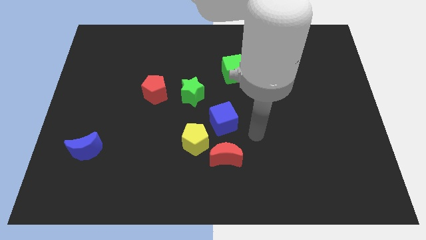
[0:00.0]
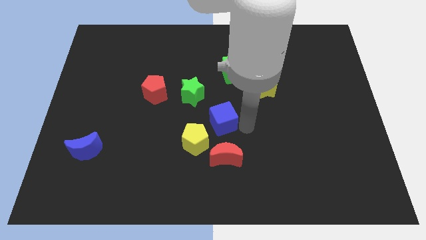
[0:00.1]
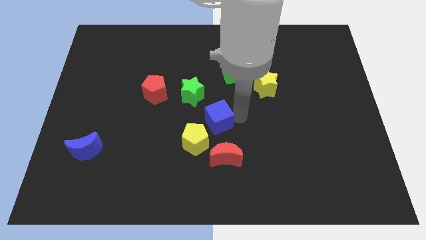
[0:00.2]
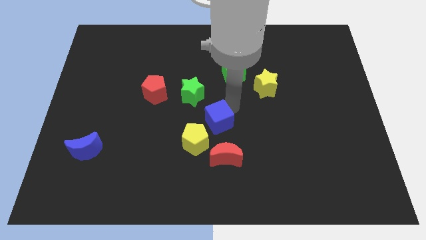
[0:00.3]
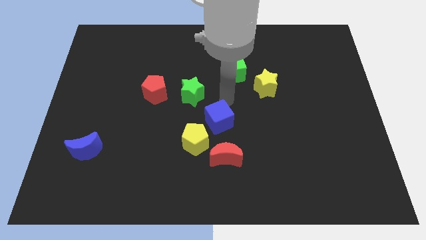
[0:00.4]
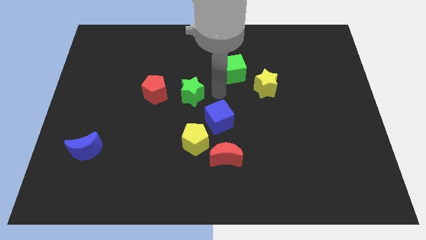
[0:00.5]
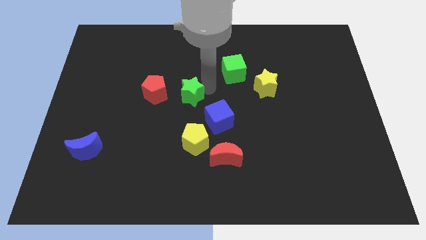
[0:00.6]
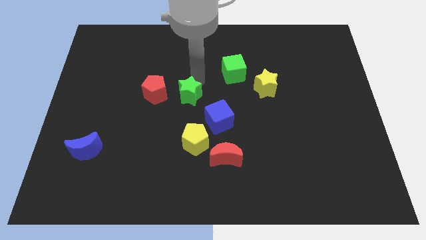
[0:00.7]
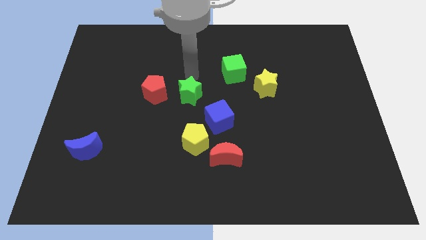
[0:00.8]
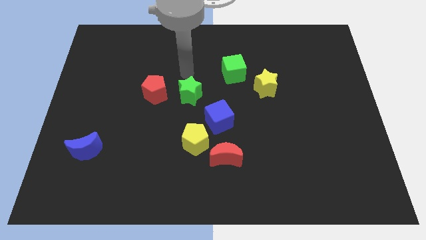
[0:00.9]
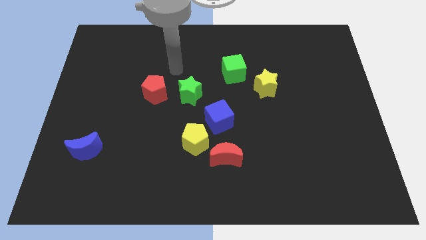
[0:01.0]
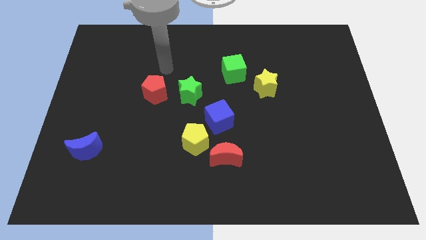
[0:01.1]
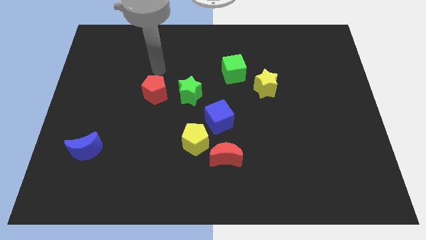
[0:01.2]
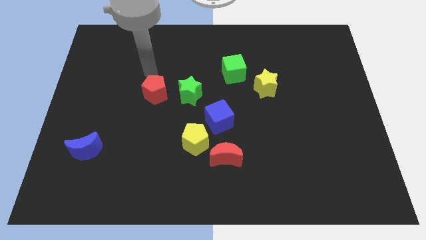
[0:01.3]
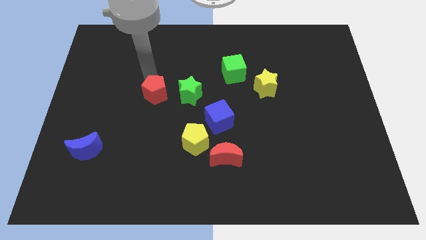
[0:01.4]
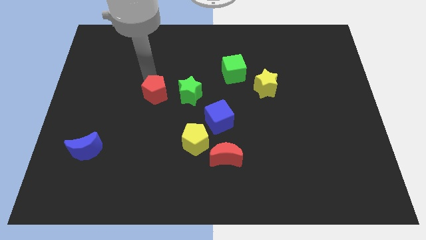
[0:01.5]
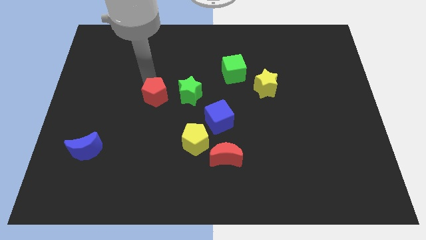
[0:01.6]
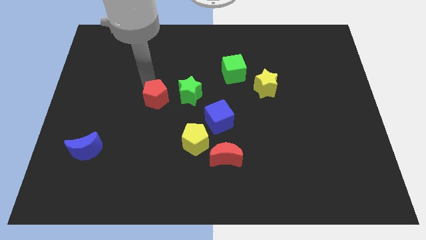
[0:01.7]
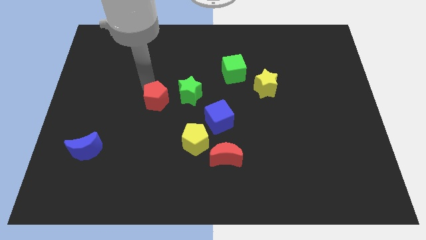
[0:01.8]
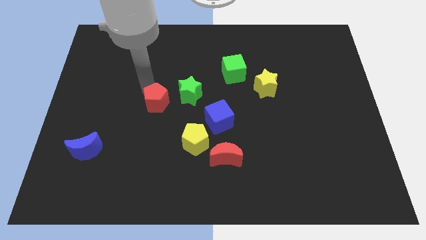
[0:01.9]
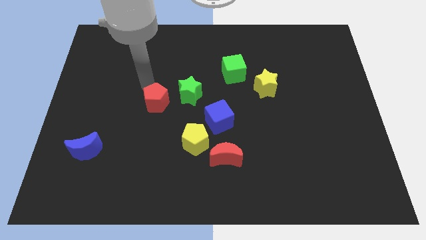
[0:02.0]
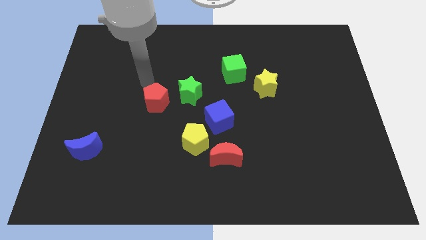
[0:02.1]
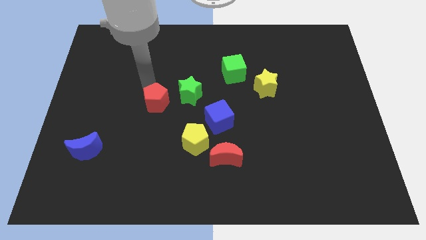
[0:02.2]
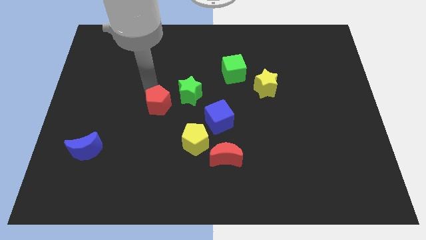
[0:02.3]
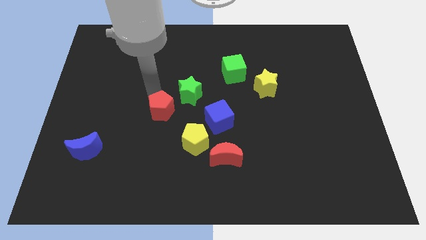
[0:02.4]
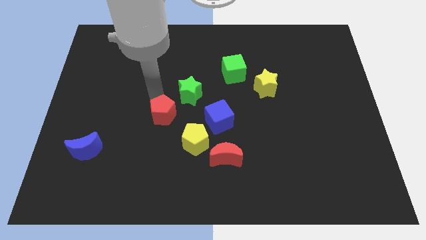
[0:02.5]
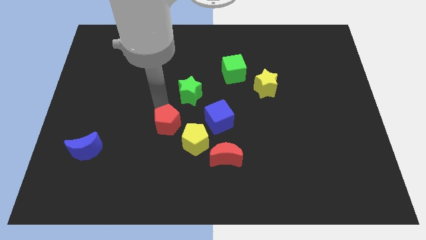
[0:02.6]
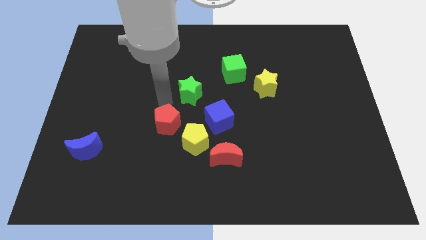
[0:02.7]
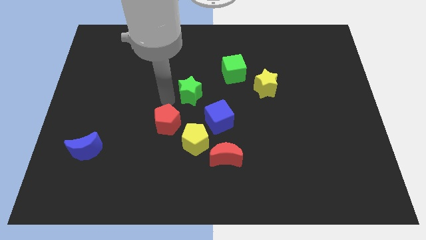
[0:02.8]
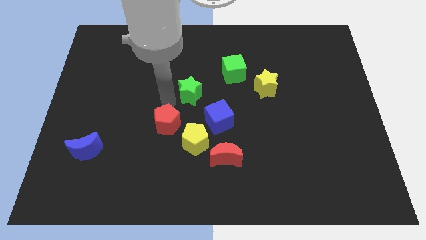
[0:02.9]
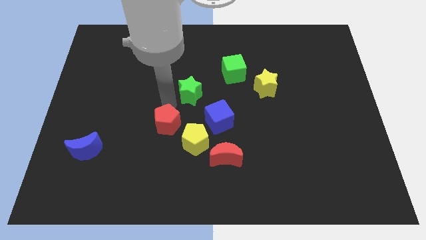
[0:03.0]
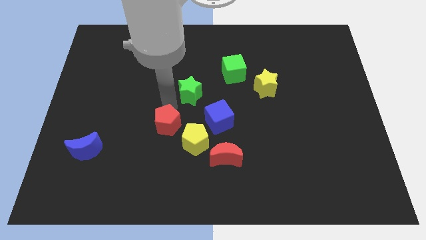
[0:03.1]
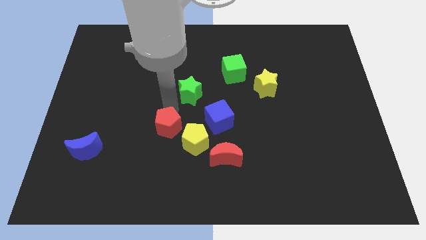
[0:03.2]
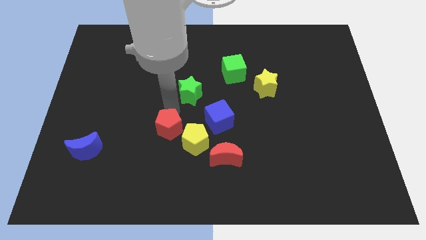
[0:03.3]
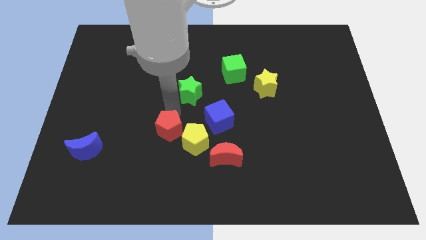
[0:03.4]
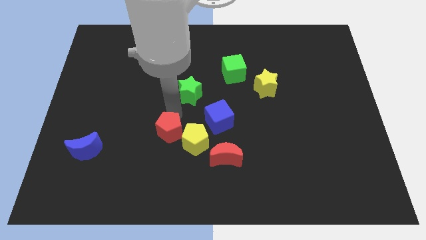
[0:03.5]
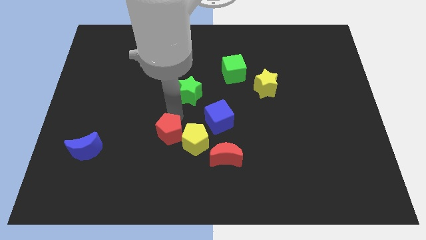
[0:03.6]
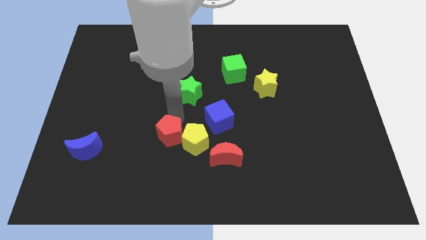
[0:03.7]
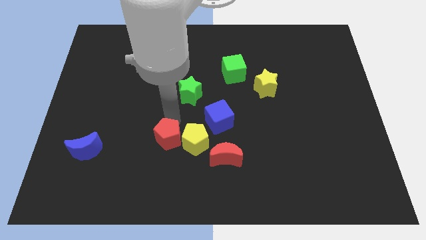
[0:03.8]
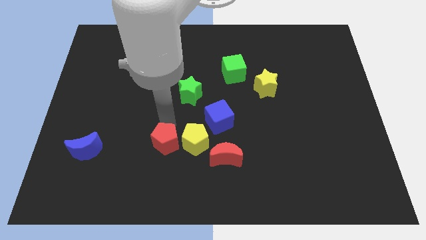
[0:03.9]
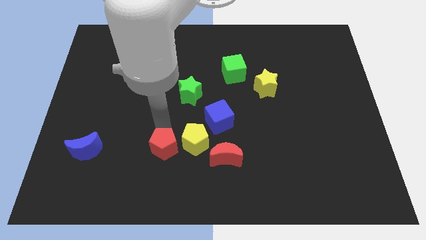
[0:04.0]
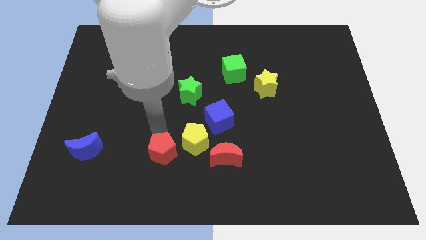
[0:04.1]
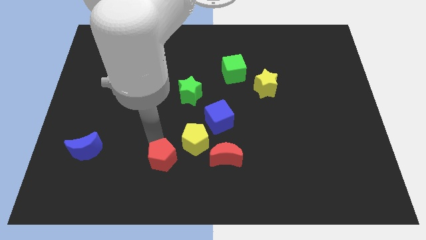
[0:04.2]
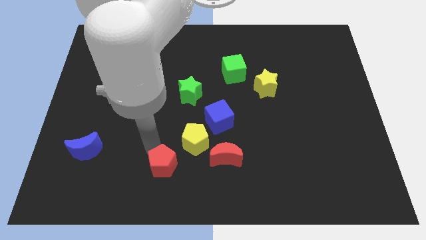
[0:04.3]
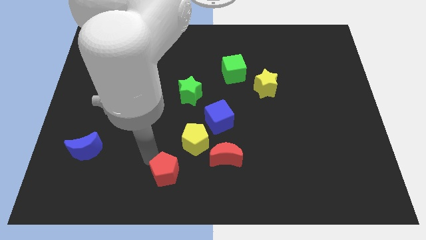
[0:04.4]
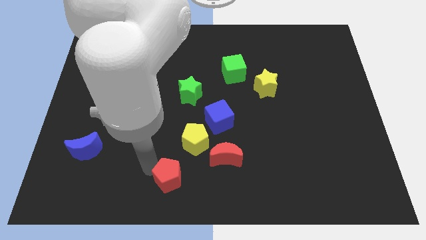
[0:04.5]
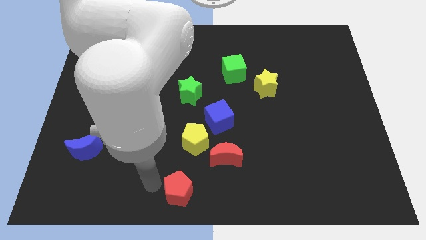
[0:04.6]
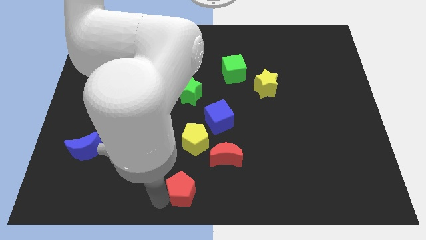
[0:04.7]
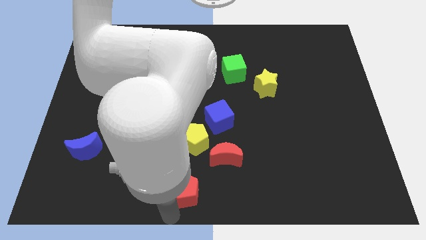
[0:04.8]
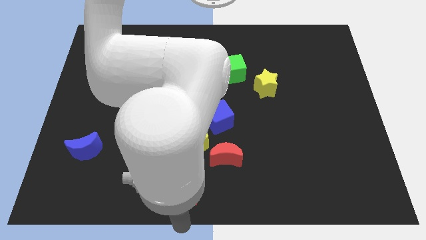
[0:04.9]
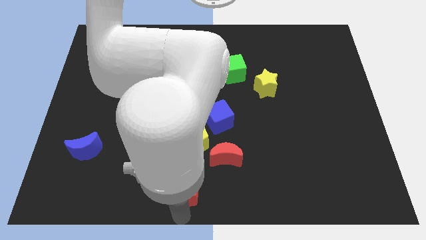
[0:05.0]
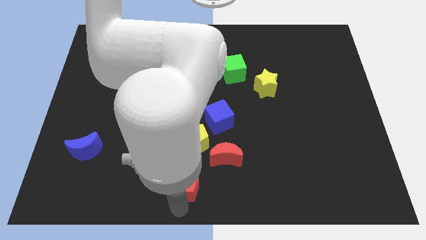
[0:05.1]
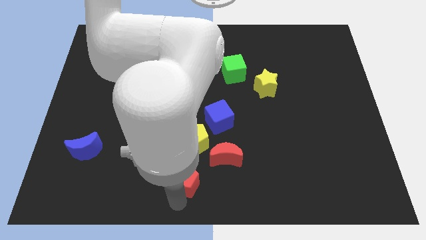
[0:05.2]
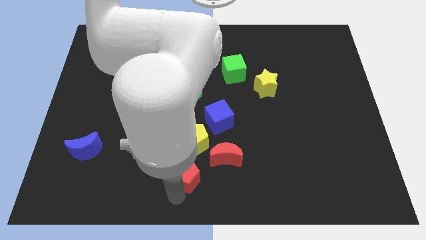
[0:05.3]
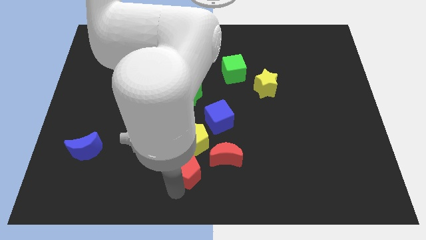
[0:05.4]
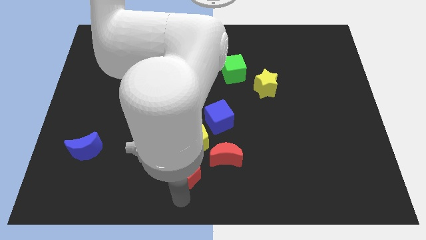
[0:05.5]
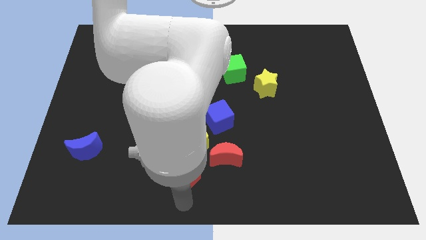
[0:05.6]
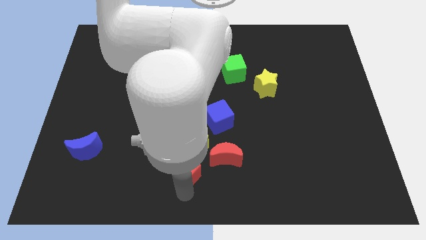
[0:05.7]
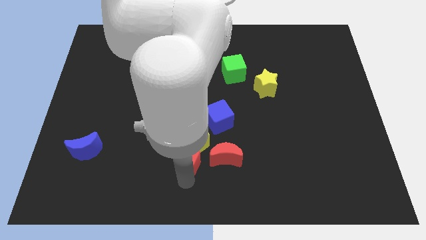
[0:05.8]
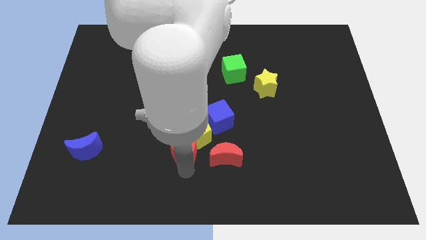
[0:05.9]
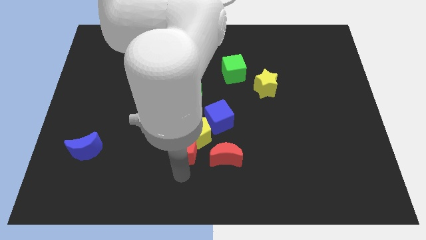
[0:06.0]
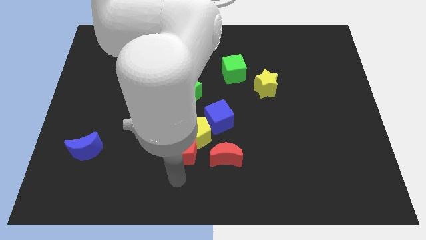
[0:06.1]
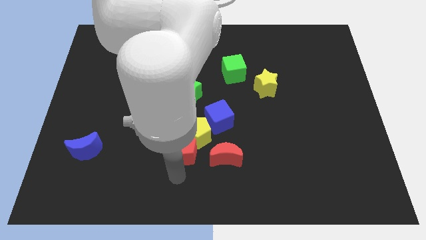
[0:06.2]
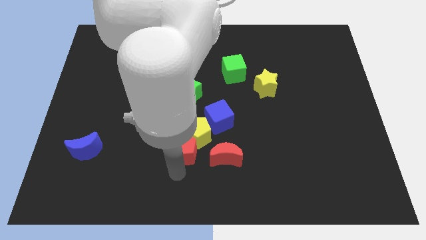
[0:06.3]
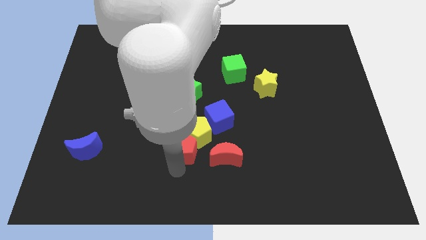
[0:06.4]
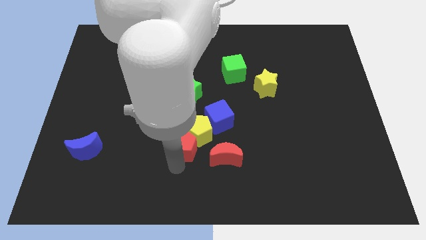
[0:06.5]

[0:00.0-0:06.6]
move the red pentagon to the top left of the red moon

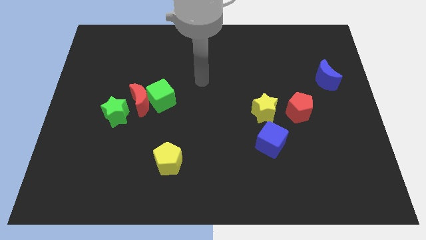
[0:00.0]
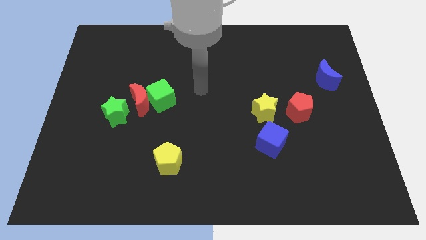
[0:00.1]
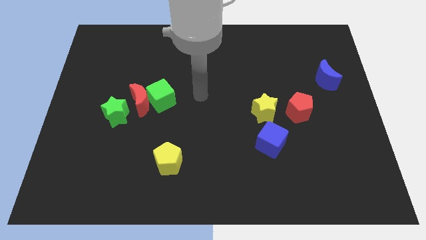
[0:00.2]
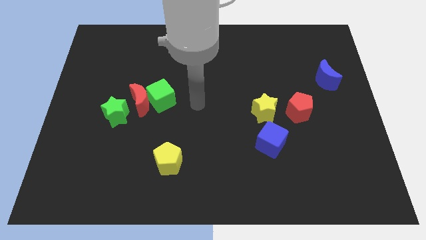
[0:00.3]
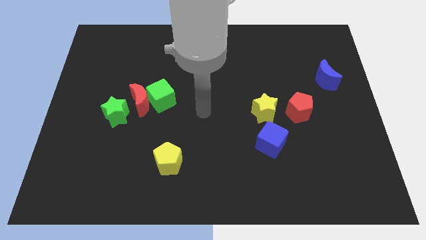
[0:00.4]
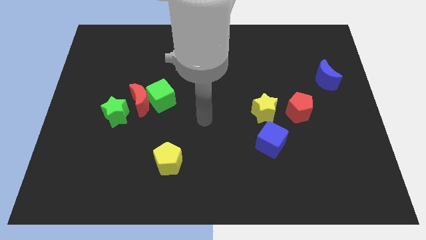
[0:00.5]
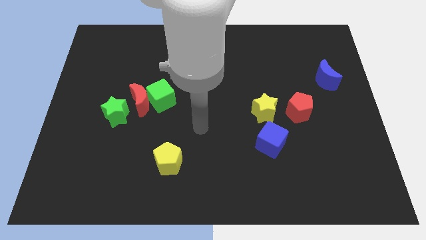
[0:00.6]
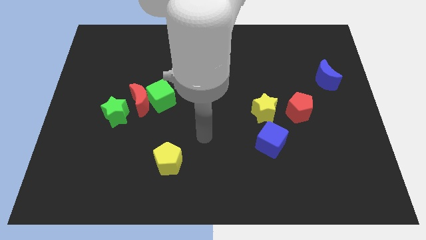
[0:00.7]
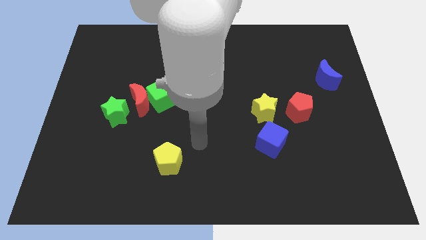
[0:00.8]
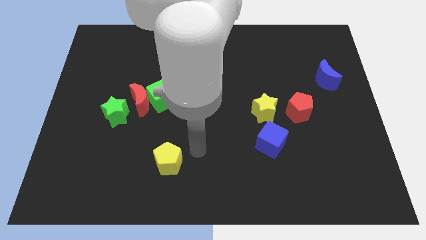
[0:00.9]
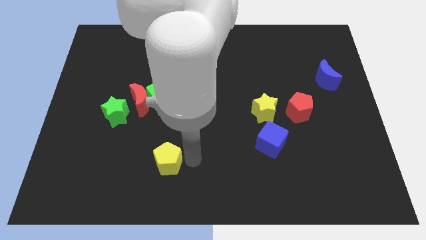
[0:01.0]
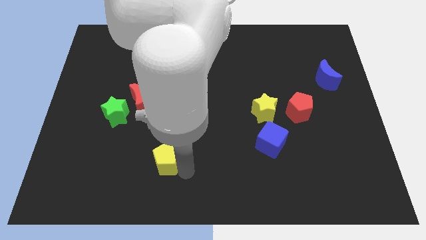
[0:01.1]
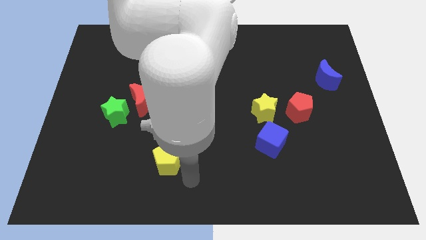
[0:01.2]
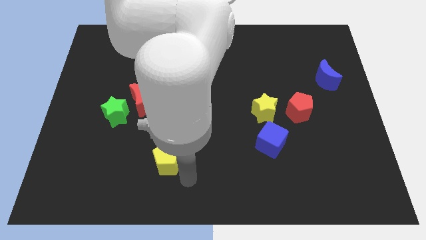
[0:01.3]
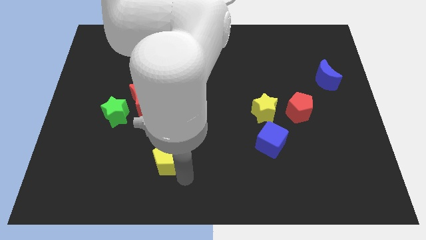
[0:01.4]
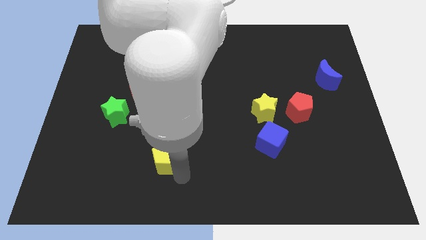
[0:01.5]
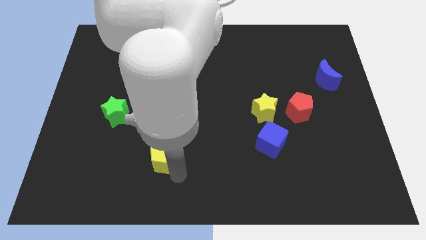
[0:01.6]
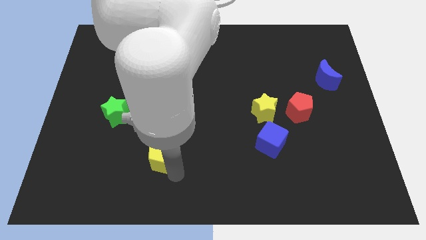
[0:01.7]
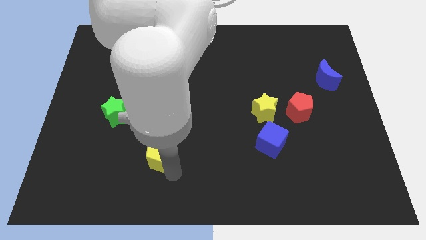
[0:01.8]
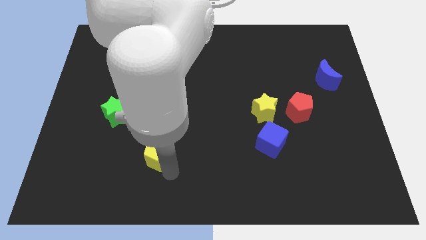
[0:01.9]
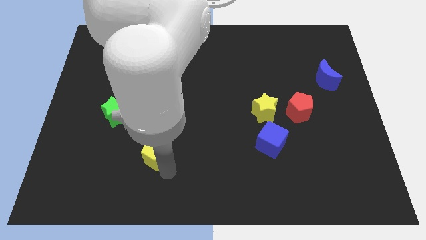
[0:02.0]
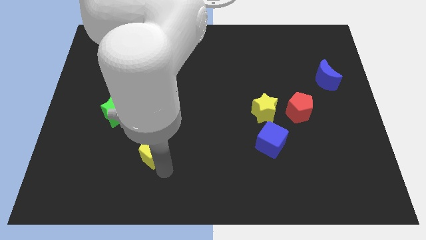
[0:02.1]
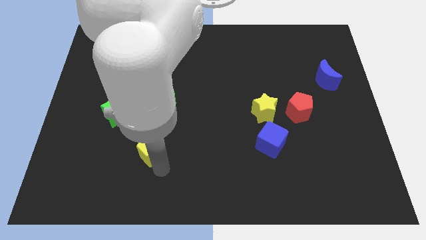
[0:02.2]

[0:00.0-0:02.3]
move the yellow pentagon to the bottom side of the red moon
